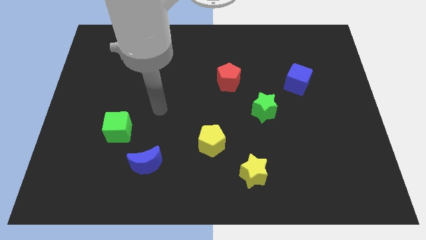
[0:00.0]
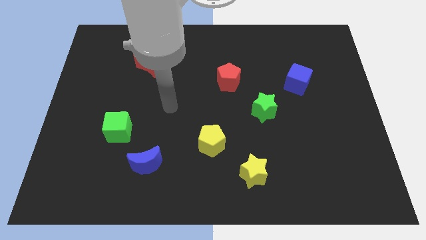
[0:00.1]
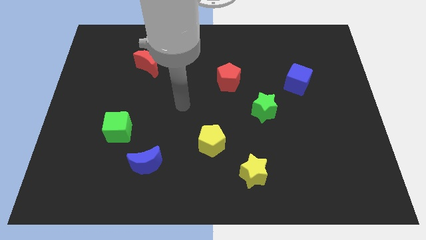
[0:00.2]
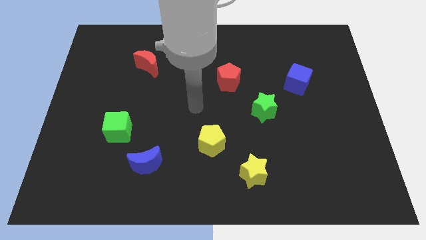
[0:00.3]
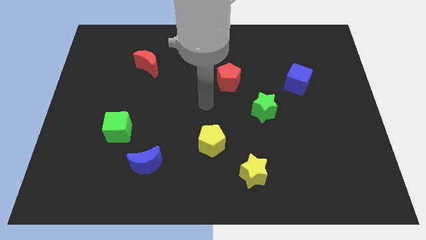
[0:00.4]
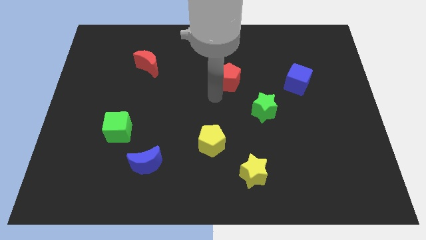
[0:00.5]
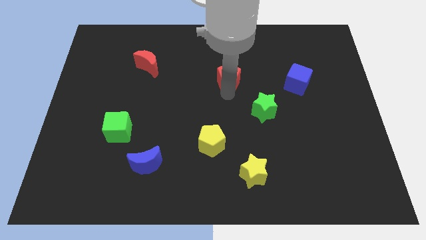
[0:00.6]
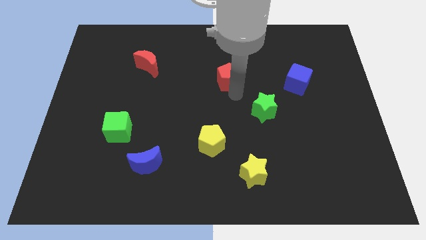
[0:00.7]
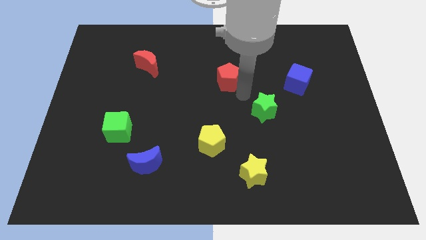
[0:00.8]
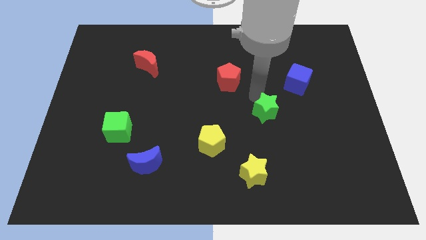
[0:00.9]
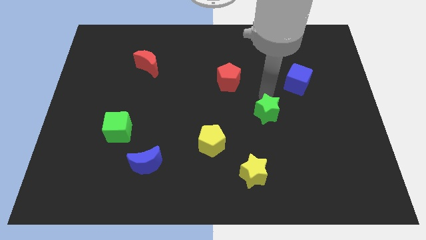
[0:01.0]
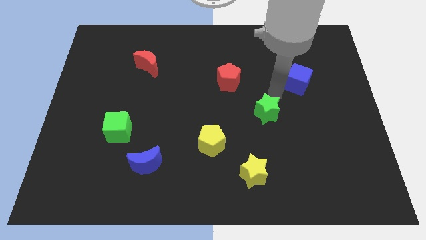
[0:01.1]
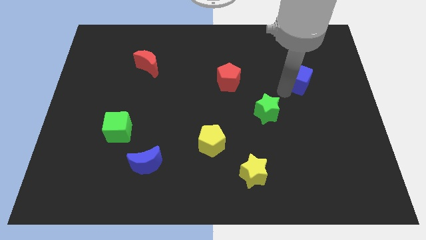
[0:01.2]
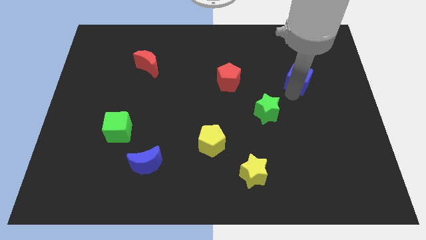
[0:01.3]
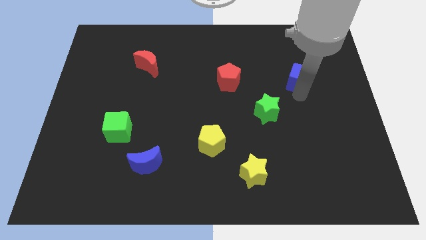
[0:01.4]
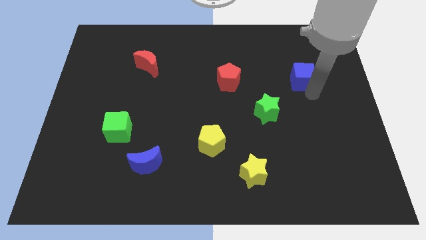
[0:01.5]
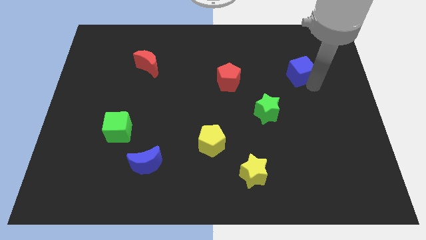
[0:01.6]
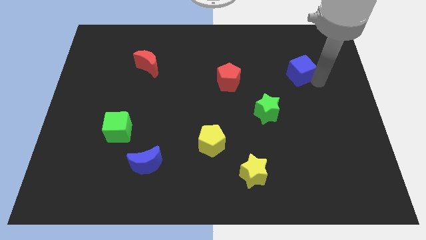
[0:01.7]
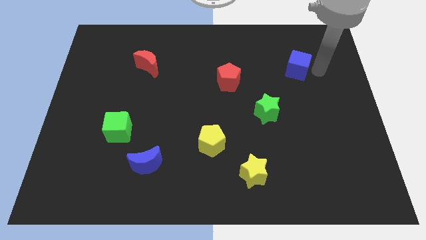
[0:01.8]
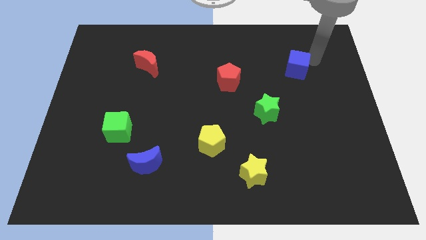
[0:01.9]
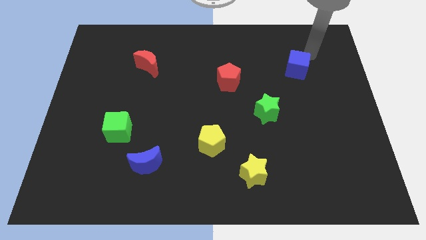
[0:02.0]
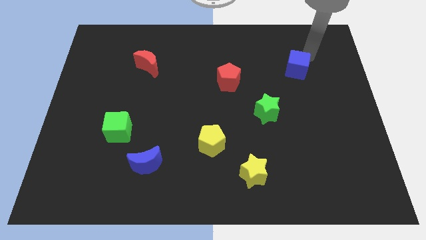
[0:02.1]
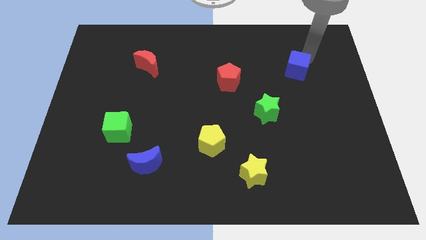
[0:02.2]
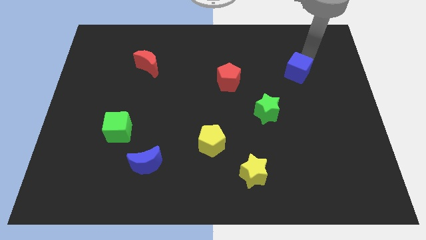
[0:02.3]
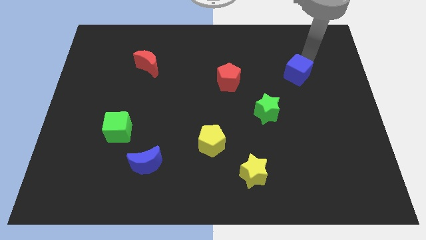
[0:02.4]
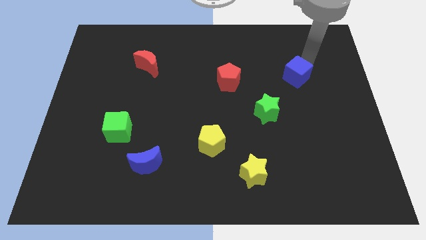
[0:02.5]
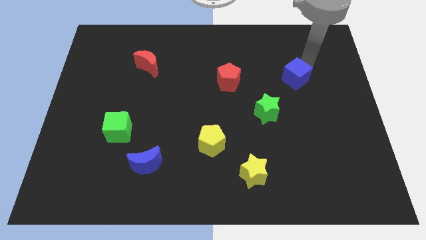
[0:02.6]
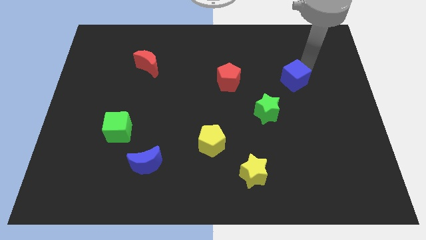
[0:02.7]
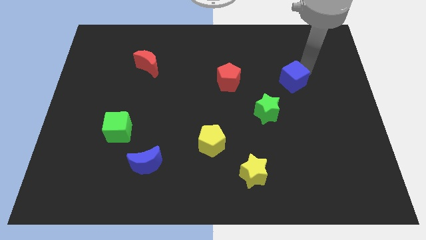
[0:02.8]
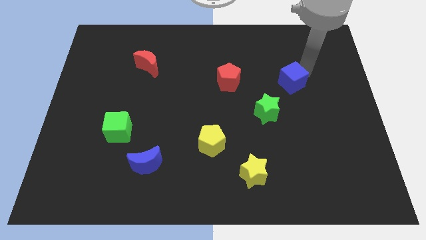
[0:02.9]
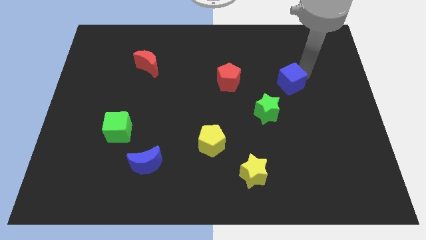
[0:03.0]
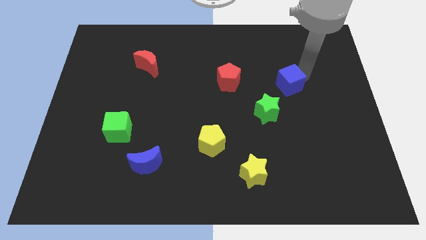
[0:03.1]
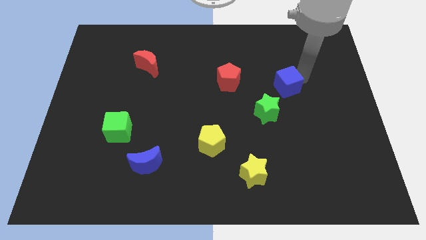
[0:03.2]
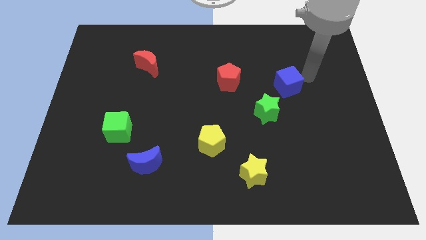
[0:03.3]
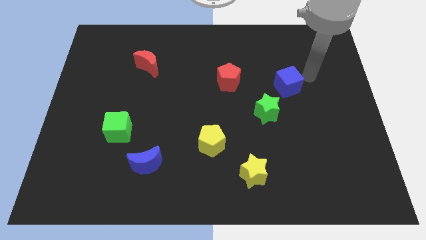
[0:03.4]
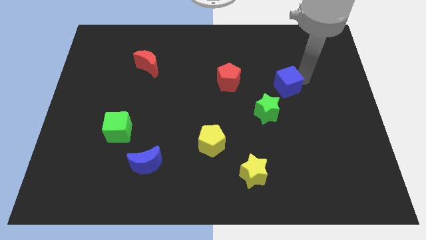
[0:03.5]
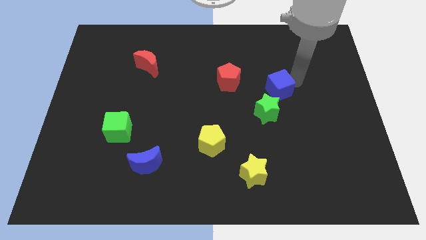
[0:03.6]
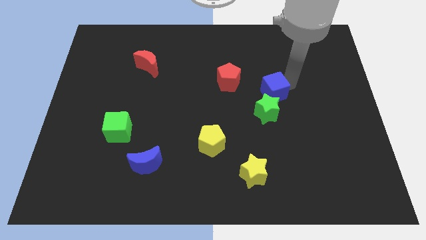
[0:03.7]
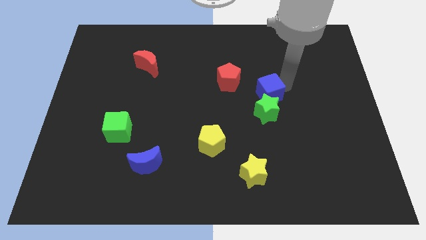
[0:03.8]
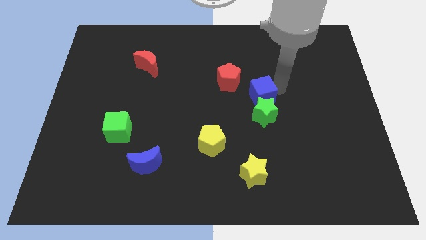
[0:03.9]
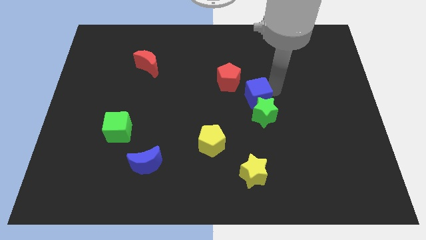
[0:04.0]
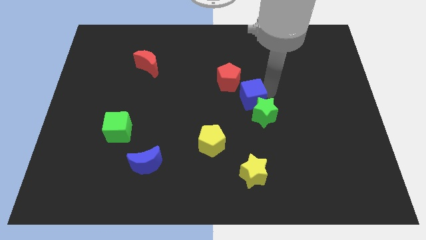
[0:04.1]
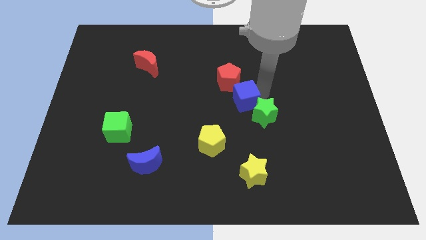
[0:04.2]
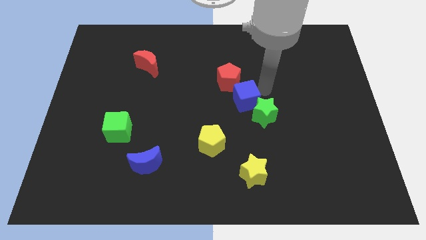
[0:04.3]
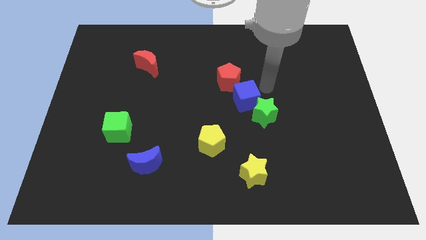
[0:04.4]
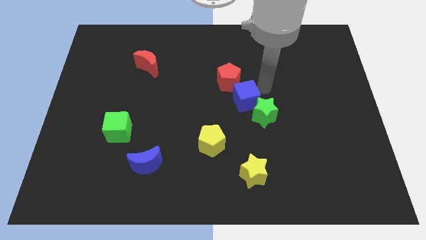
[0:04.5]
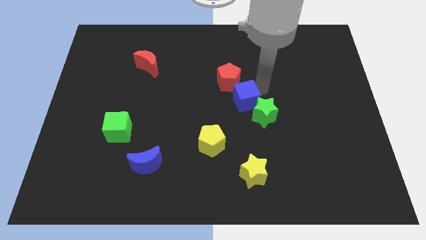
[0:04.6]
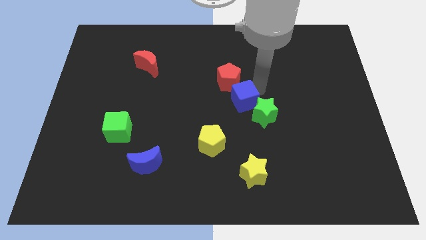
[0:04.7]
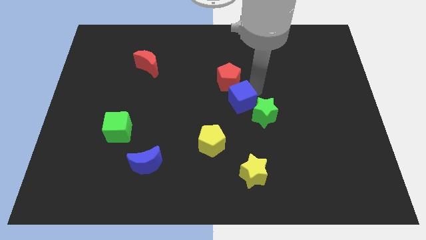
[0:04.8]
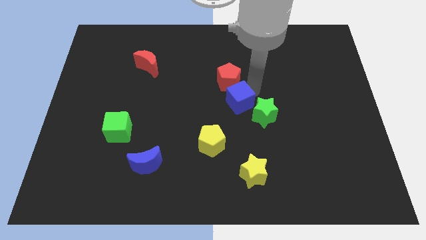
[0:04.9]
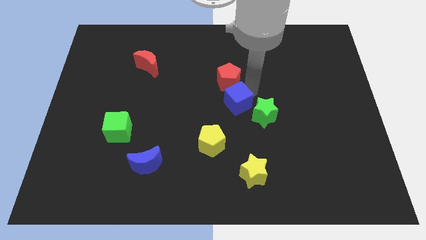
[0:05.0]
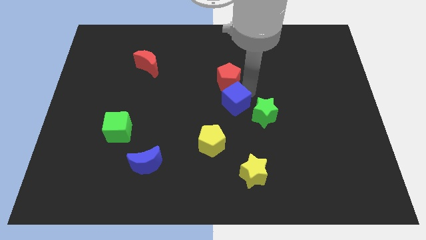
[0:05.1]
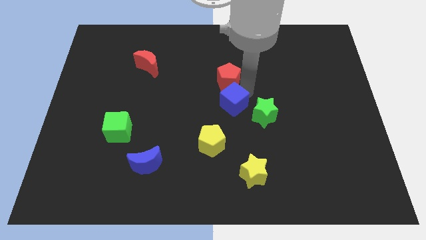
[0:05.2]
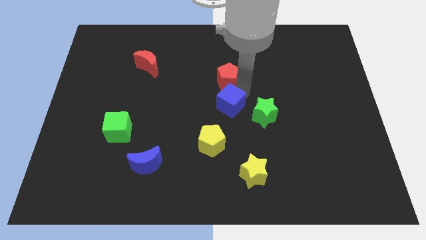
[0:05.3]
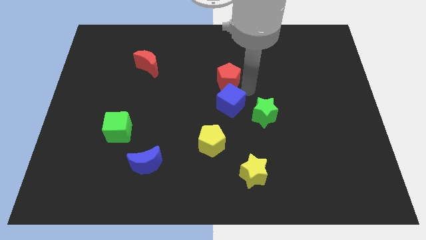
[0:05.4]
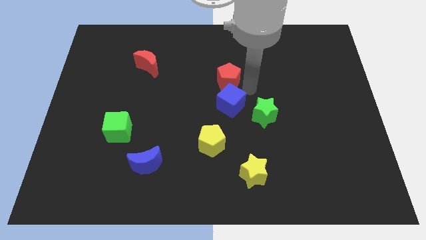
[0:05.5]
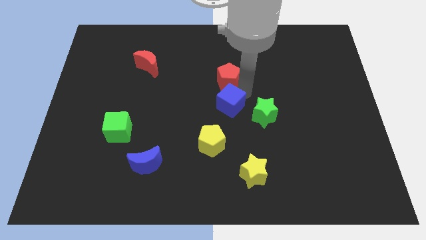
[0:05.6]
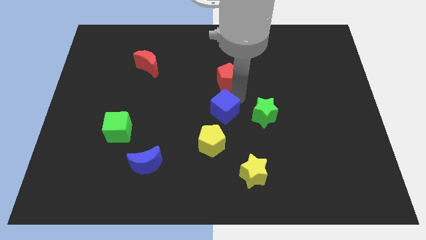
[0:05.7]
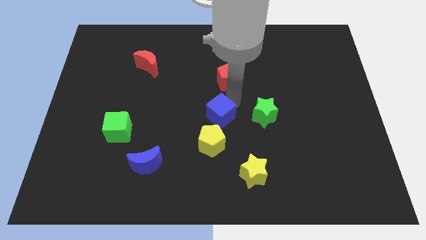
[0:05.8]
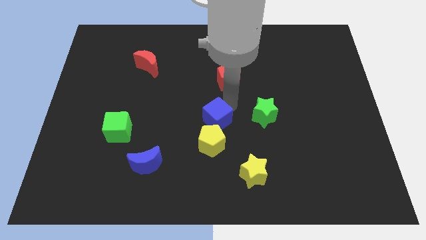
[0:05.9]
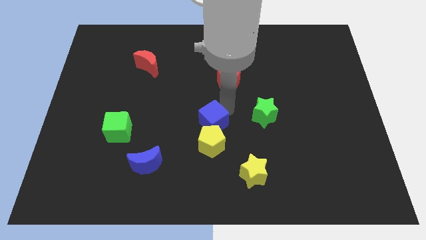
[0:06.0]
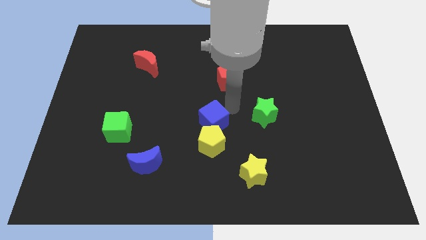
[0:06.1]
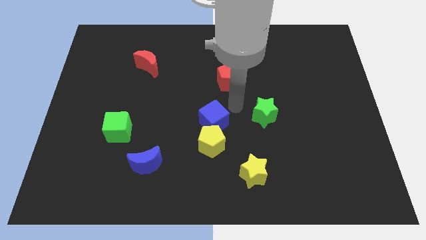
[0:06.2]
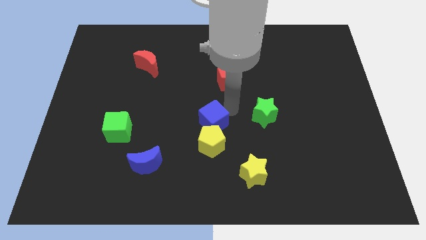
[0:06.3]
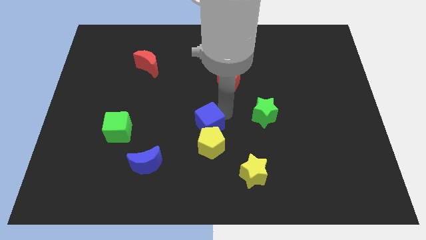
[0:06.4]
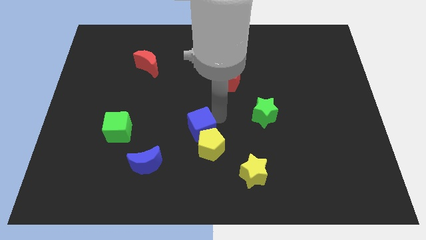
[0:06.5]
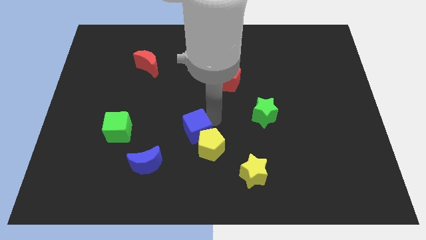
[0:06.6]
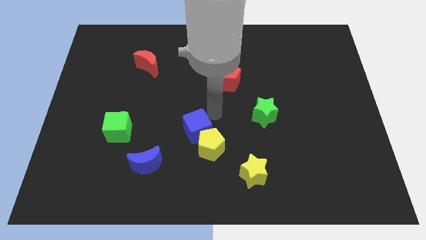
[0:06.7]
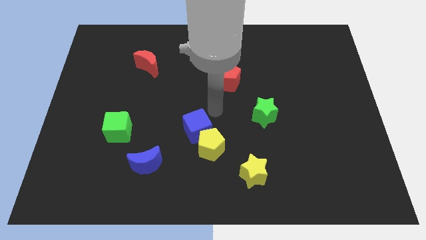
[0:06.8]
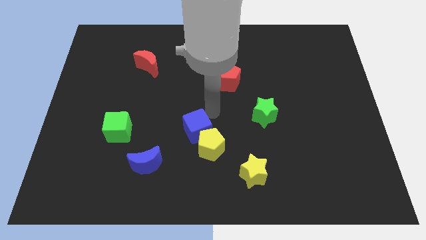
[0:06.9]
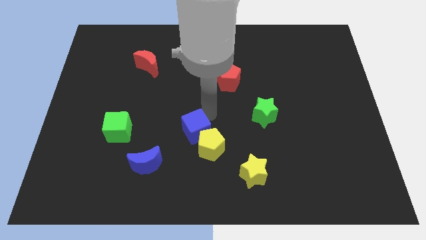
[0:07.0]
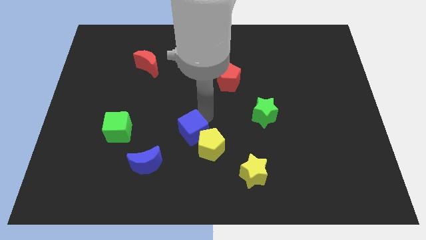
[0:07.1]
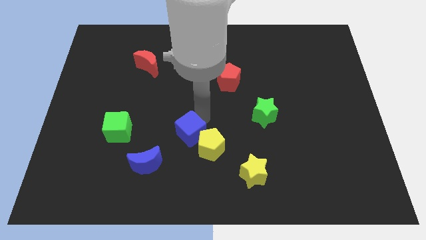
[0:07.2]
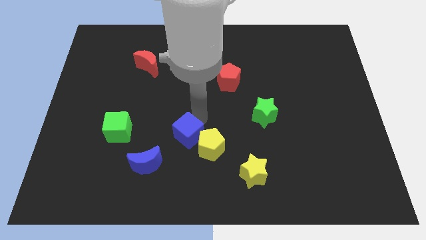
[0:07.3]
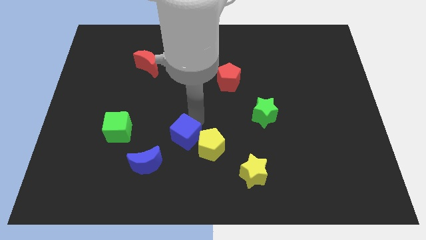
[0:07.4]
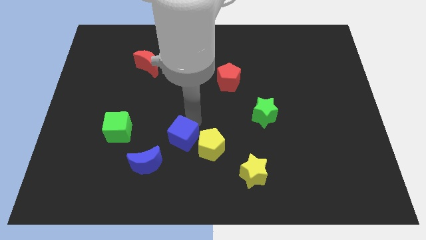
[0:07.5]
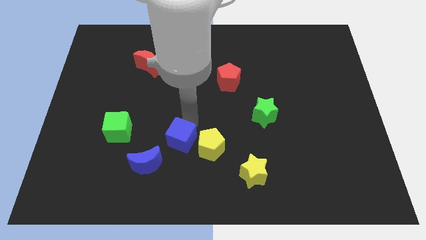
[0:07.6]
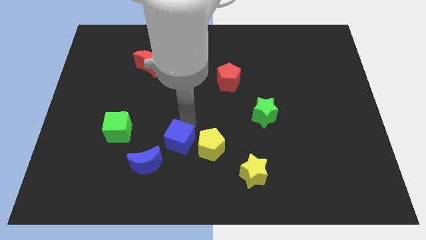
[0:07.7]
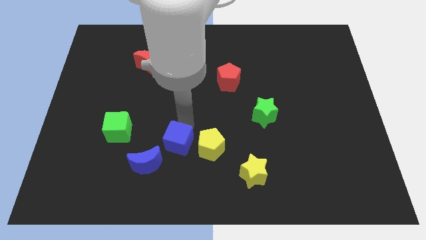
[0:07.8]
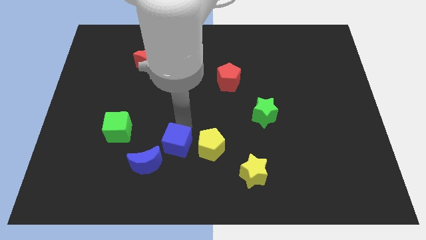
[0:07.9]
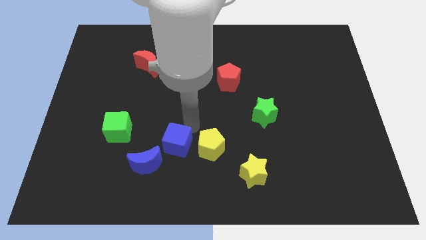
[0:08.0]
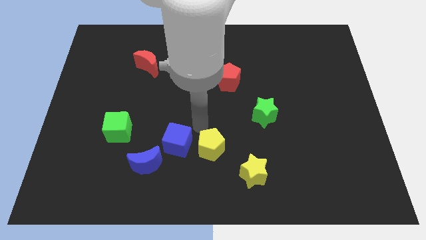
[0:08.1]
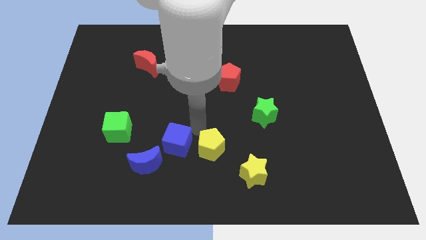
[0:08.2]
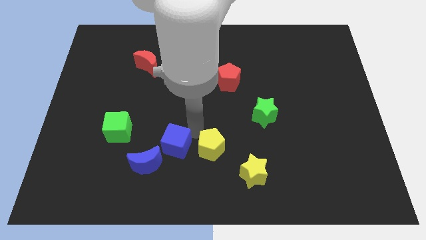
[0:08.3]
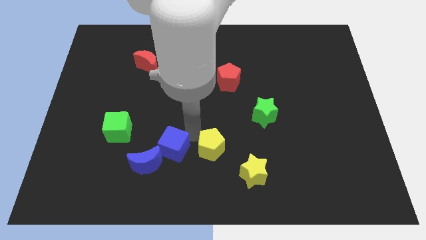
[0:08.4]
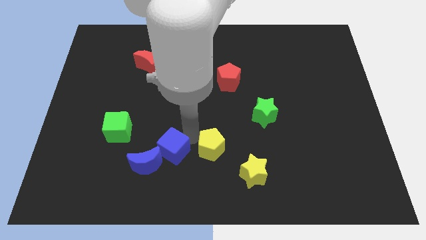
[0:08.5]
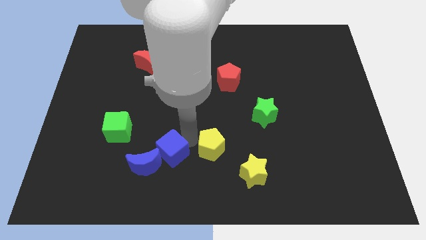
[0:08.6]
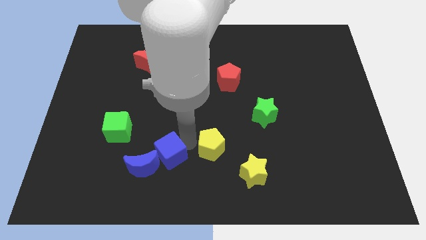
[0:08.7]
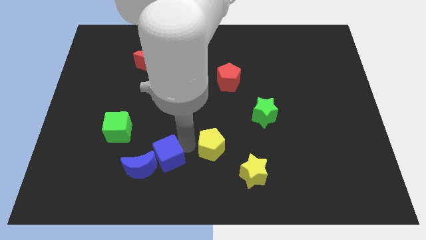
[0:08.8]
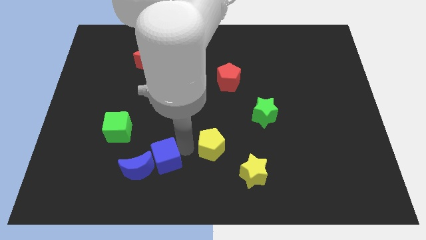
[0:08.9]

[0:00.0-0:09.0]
push the blue cube to the blue moon
